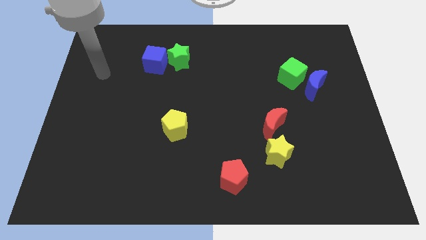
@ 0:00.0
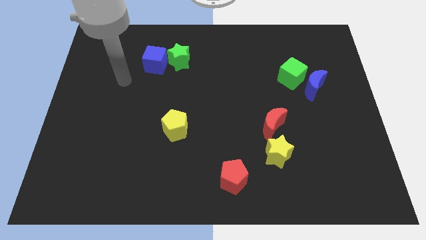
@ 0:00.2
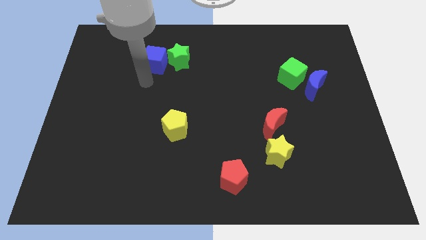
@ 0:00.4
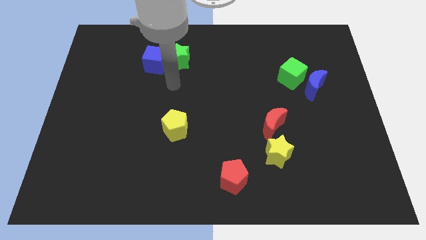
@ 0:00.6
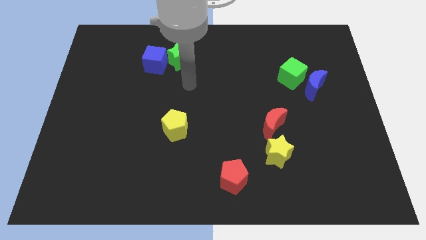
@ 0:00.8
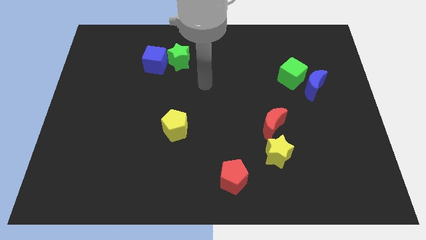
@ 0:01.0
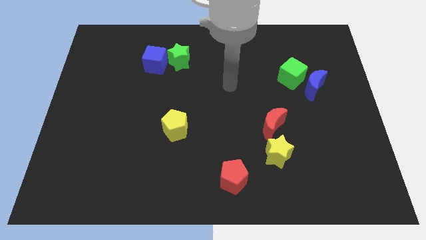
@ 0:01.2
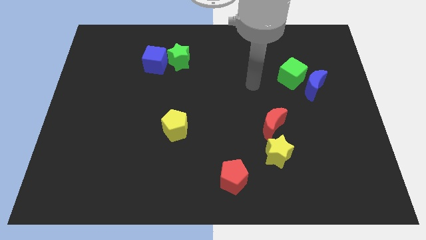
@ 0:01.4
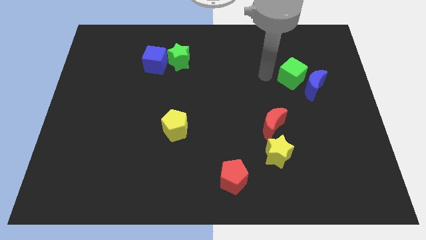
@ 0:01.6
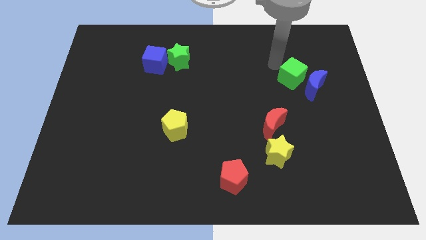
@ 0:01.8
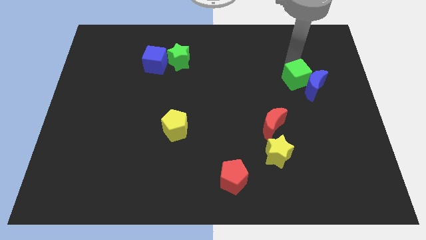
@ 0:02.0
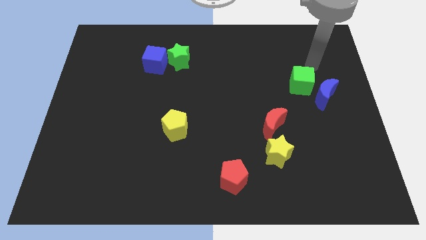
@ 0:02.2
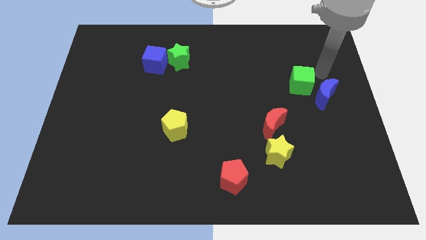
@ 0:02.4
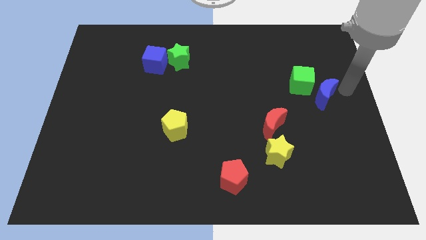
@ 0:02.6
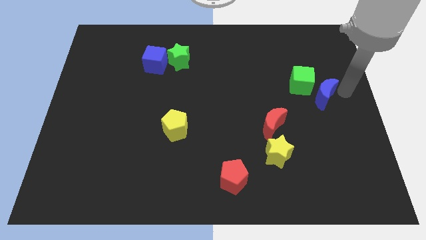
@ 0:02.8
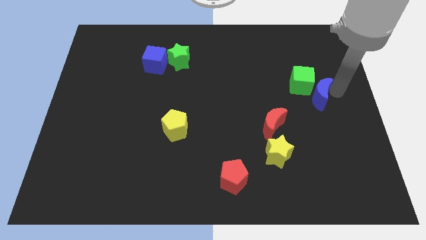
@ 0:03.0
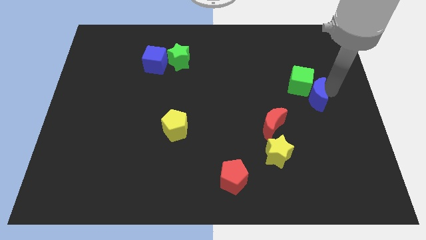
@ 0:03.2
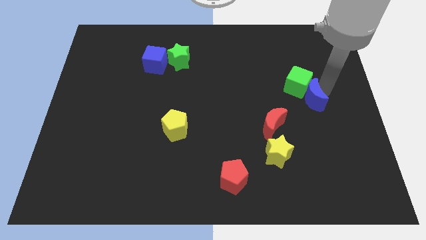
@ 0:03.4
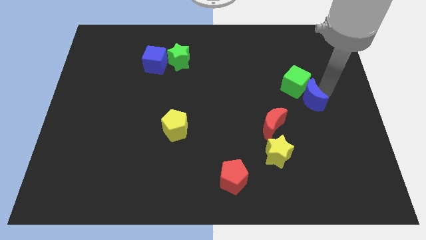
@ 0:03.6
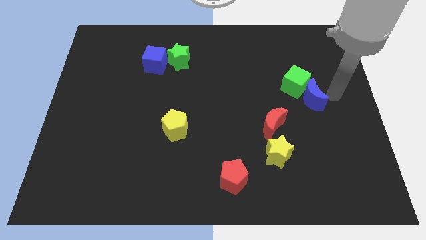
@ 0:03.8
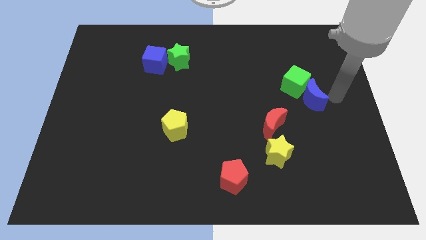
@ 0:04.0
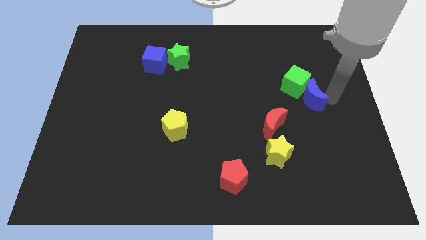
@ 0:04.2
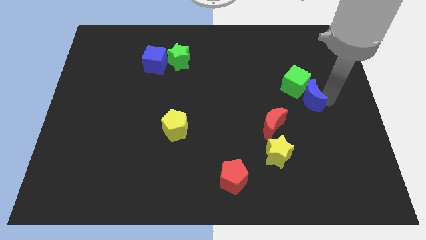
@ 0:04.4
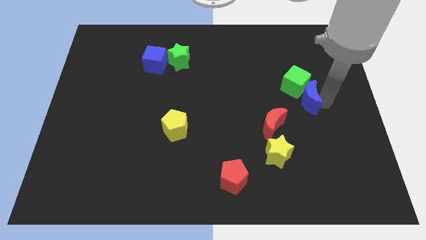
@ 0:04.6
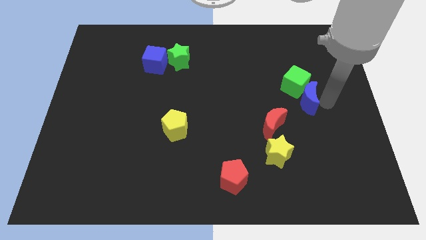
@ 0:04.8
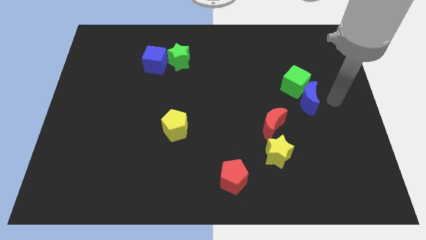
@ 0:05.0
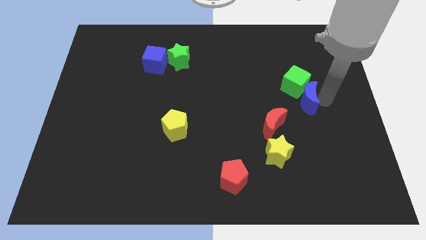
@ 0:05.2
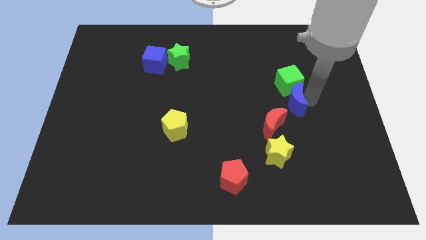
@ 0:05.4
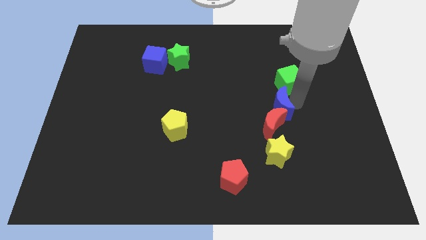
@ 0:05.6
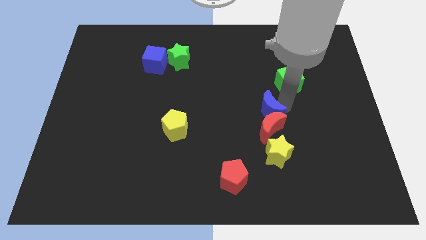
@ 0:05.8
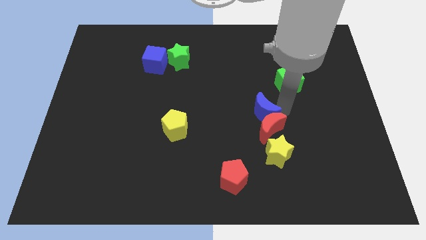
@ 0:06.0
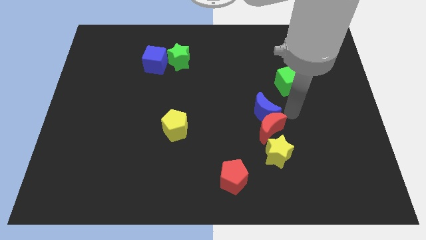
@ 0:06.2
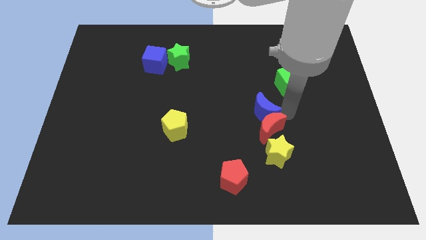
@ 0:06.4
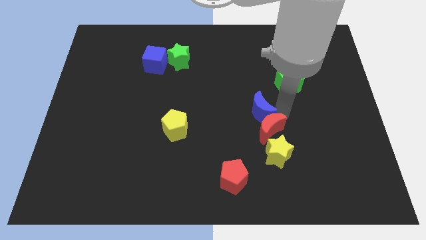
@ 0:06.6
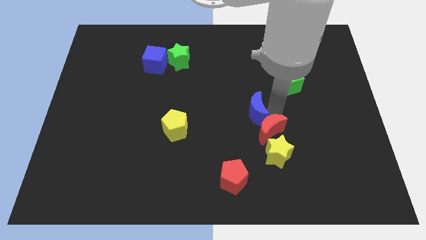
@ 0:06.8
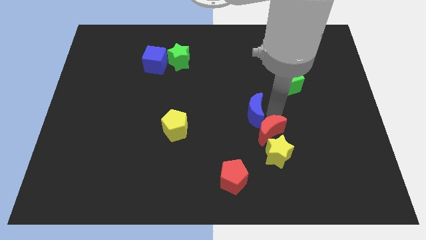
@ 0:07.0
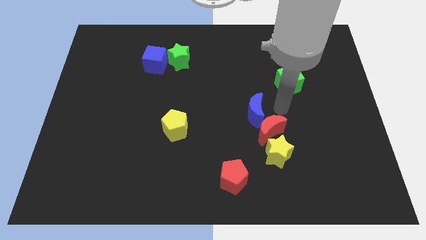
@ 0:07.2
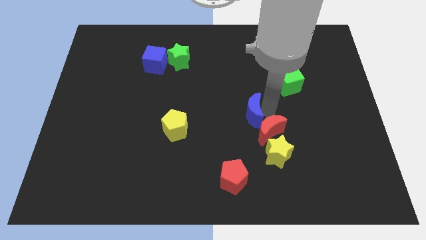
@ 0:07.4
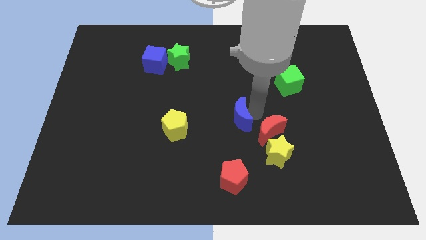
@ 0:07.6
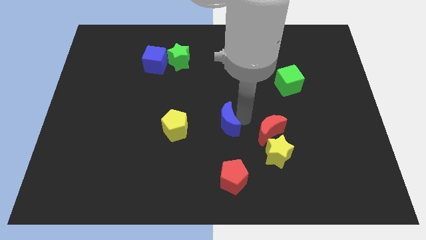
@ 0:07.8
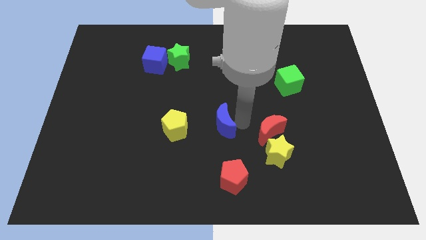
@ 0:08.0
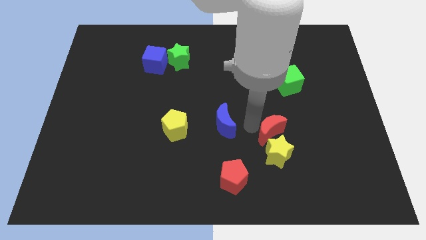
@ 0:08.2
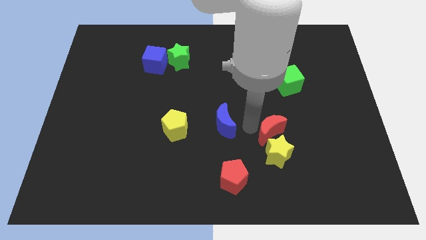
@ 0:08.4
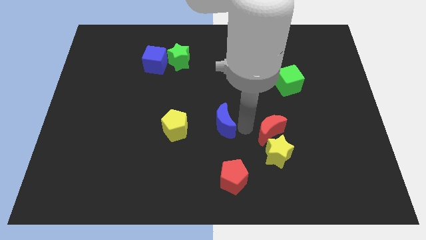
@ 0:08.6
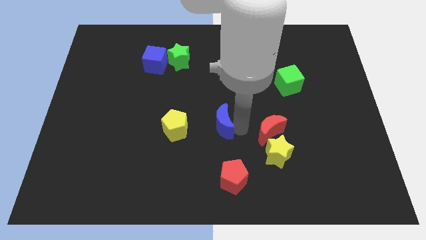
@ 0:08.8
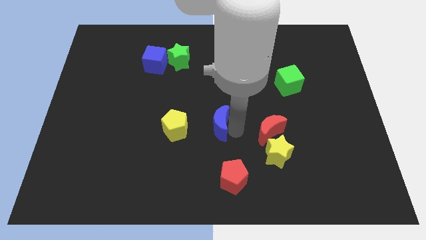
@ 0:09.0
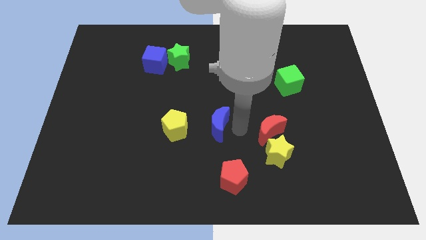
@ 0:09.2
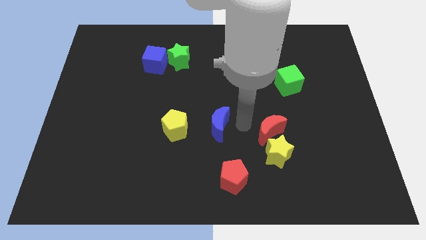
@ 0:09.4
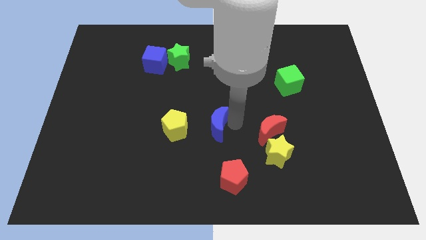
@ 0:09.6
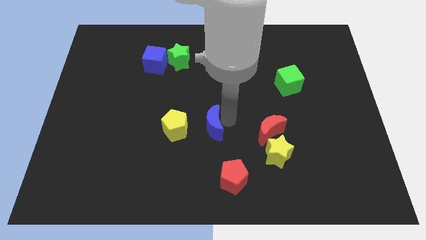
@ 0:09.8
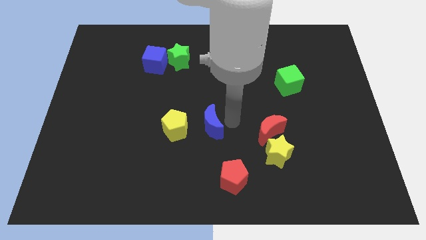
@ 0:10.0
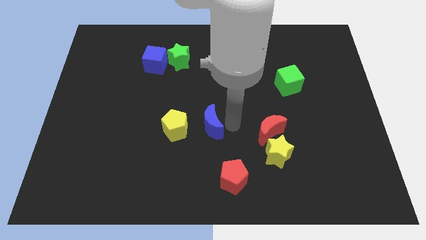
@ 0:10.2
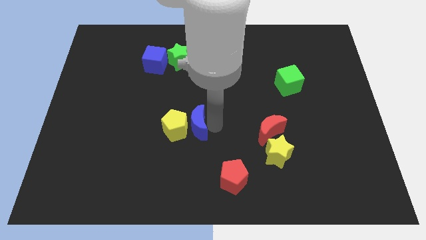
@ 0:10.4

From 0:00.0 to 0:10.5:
slide the blue moon towards the yellow pentagon

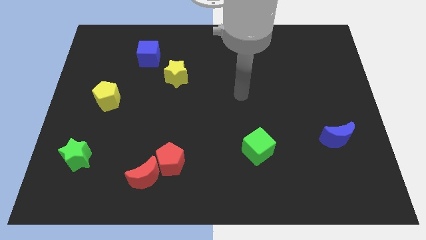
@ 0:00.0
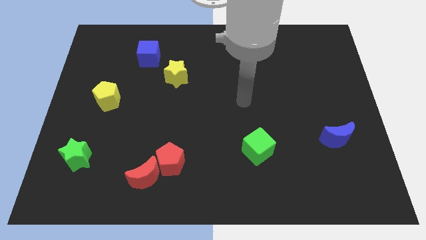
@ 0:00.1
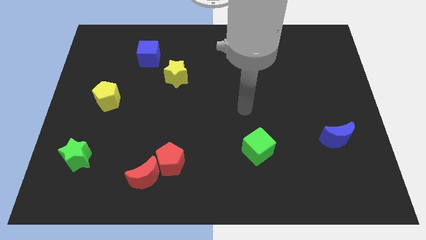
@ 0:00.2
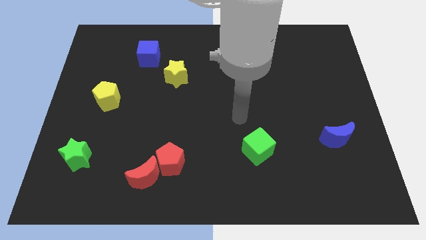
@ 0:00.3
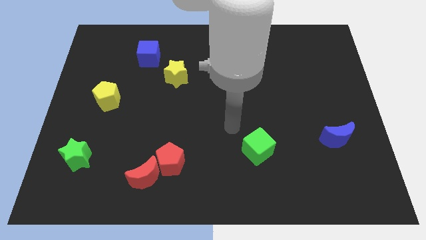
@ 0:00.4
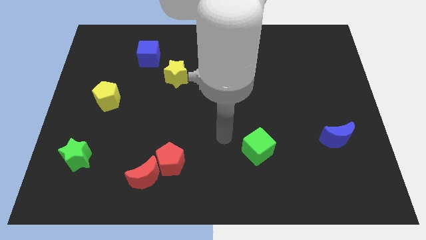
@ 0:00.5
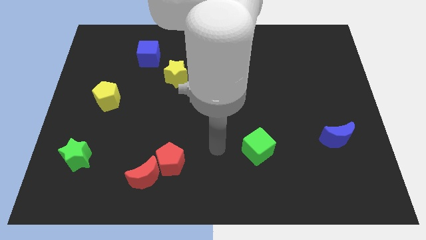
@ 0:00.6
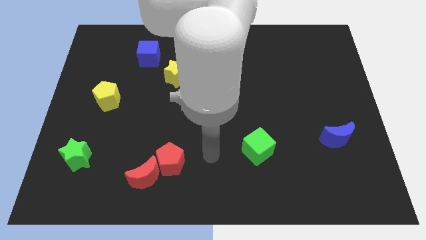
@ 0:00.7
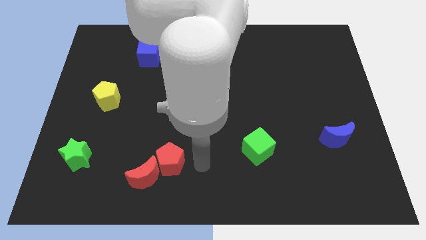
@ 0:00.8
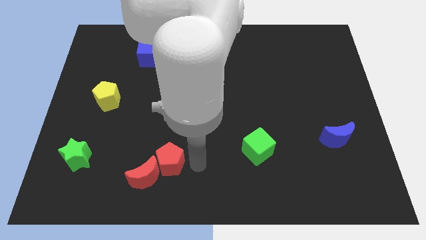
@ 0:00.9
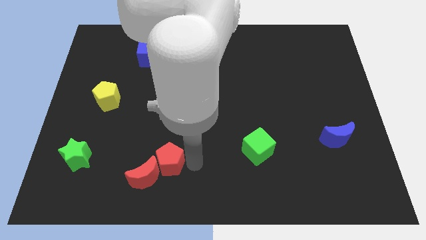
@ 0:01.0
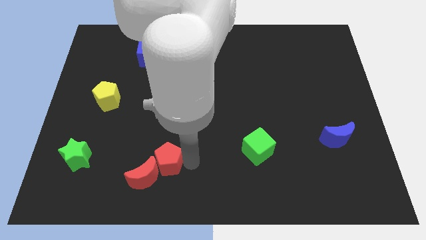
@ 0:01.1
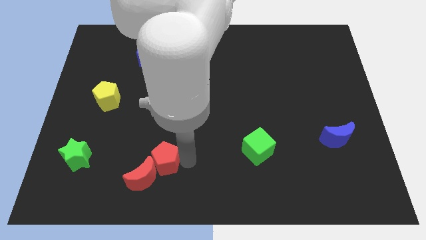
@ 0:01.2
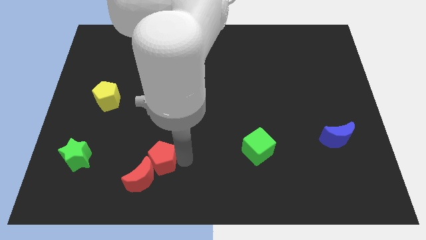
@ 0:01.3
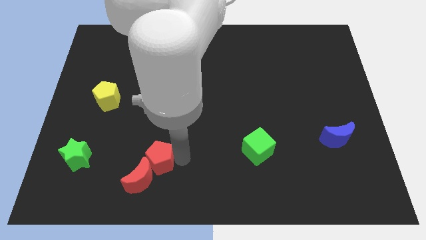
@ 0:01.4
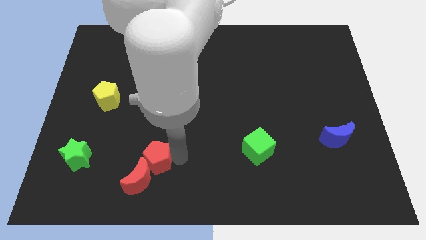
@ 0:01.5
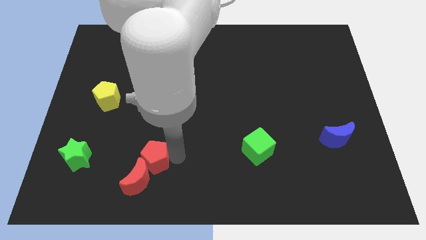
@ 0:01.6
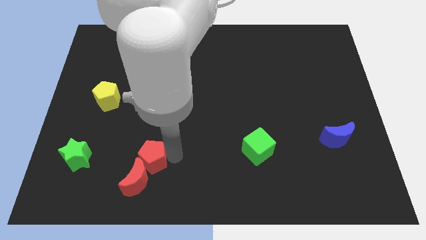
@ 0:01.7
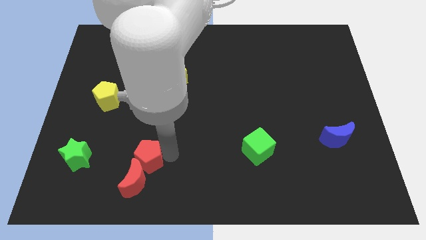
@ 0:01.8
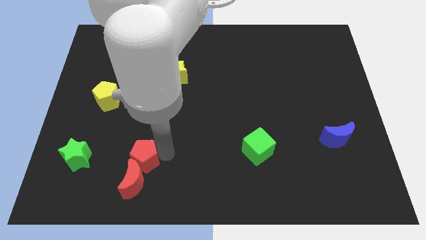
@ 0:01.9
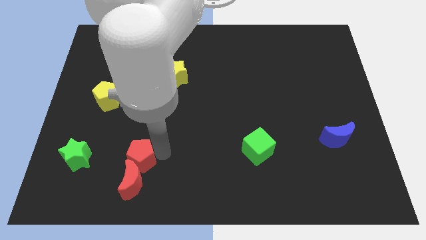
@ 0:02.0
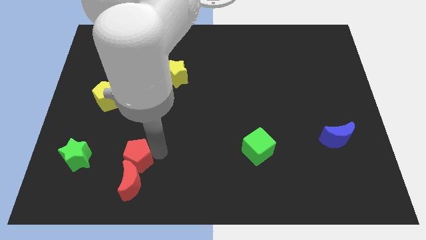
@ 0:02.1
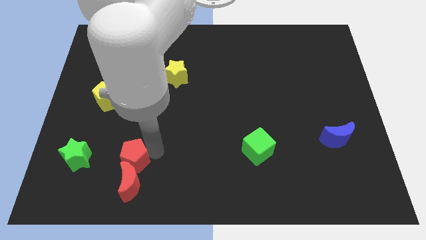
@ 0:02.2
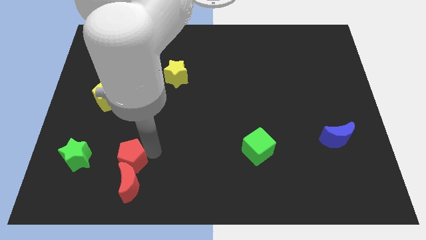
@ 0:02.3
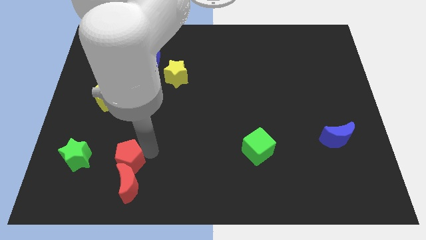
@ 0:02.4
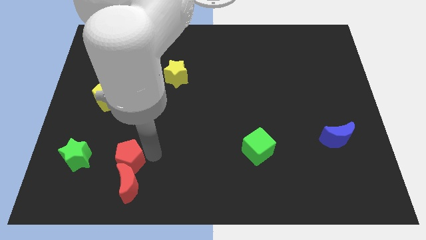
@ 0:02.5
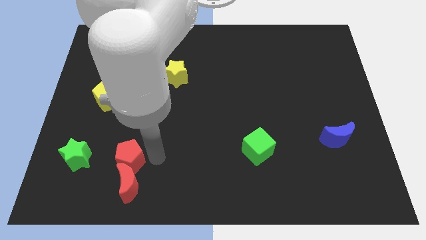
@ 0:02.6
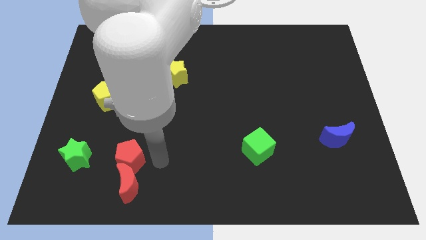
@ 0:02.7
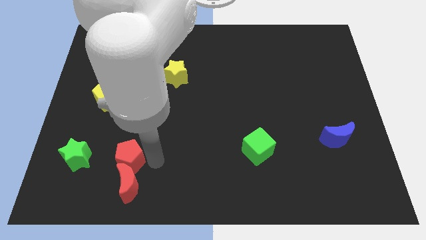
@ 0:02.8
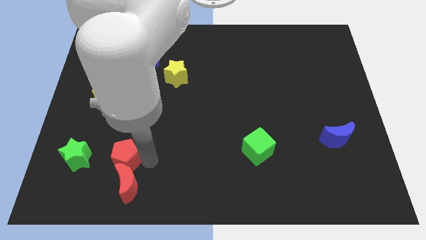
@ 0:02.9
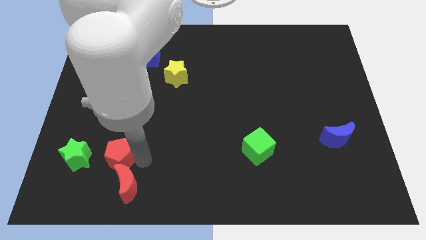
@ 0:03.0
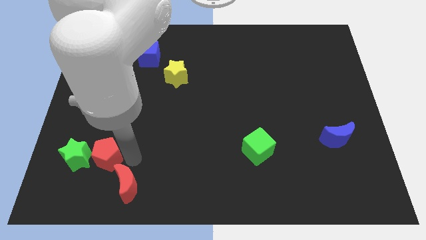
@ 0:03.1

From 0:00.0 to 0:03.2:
push the red pentagon close to the green star
